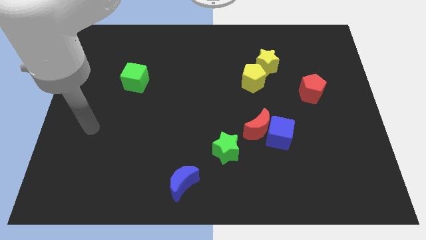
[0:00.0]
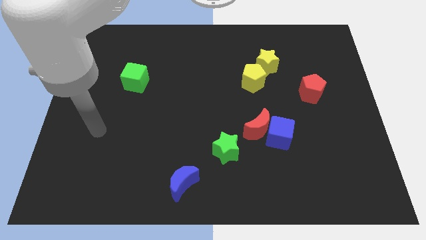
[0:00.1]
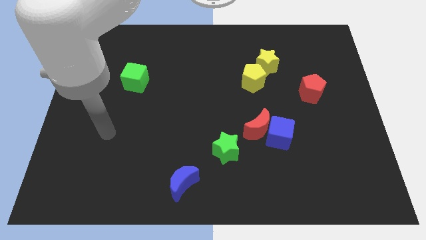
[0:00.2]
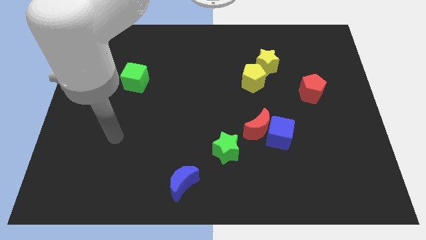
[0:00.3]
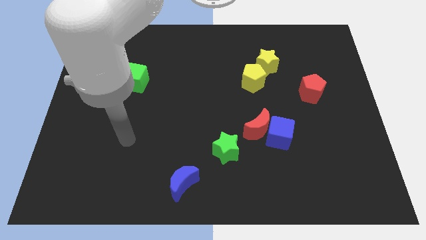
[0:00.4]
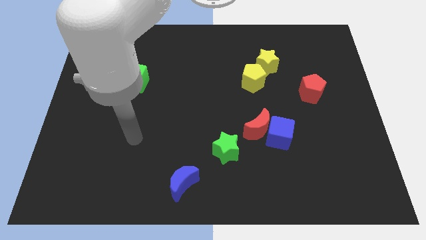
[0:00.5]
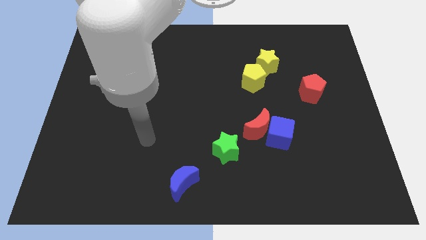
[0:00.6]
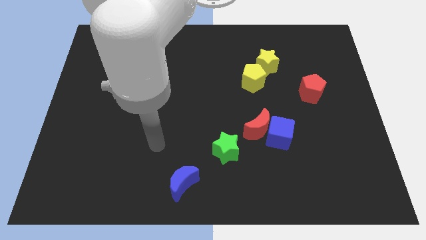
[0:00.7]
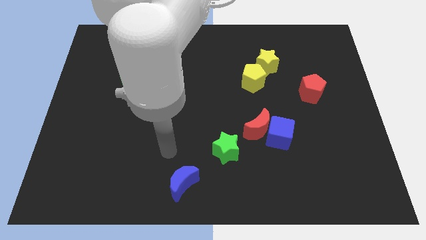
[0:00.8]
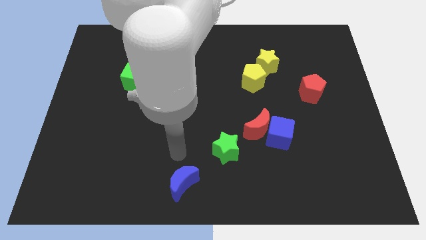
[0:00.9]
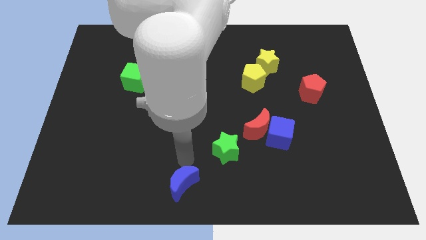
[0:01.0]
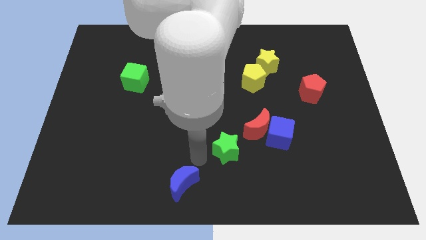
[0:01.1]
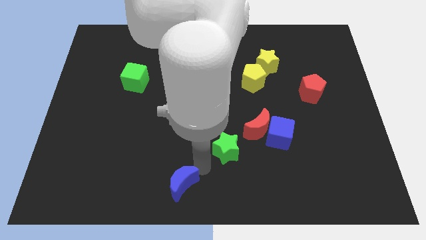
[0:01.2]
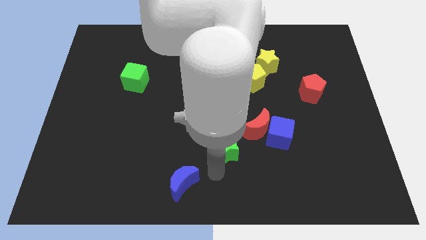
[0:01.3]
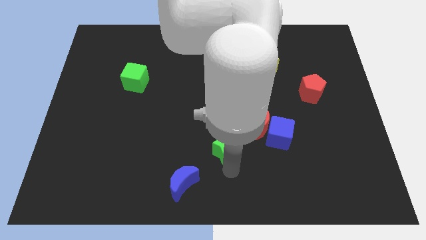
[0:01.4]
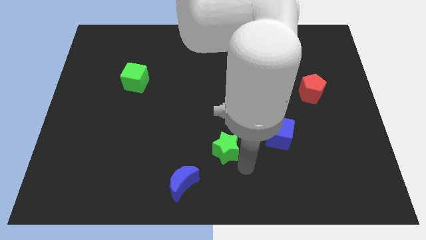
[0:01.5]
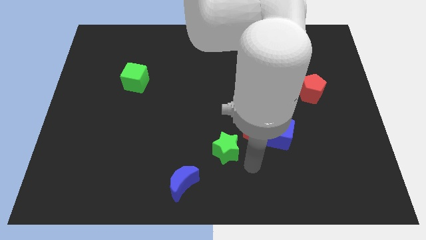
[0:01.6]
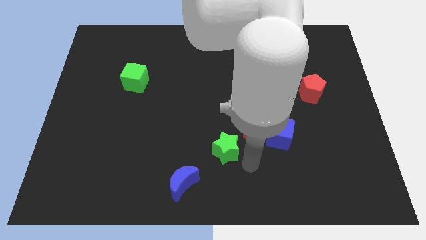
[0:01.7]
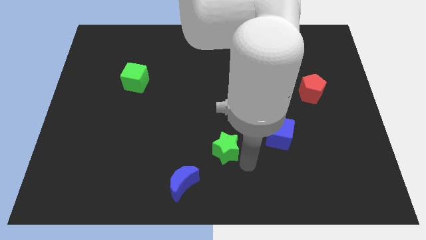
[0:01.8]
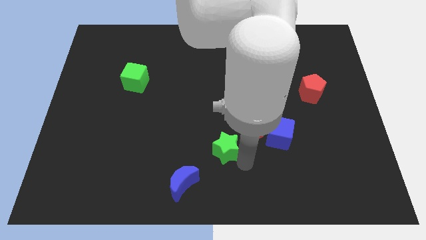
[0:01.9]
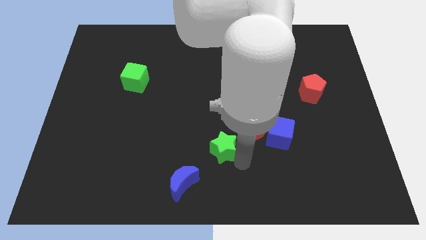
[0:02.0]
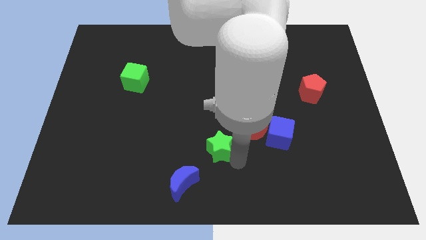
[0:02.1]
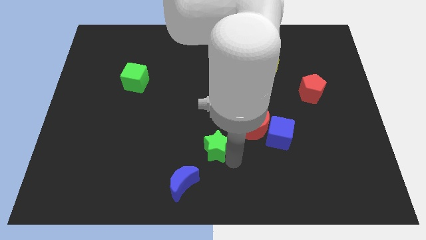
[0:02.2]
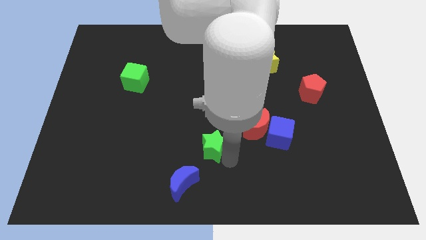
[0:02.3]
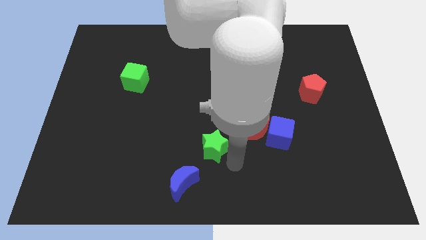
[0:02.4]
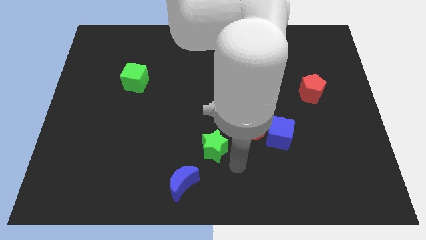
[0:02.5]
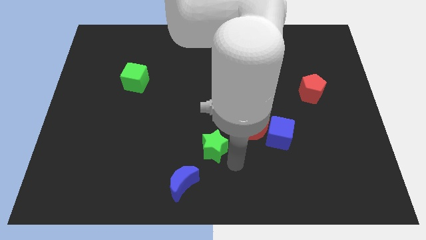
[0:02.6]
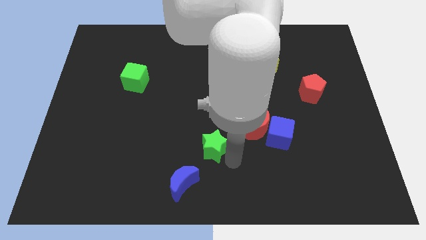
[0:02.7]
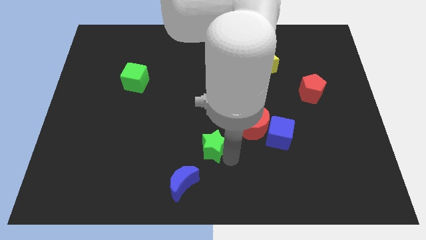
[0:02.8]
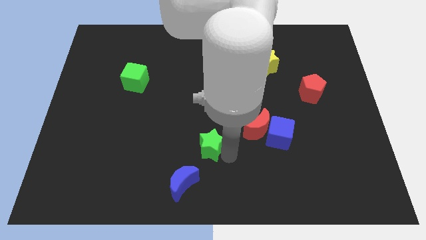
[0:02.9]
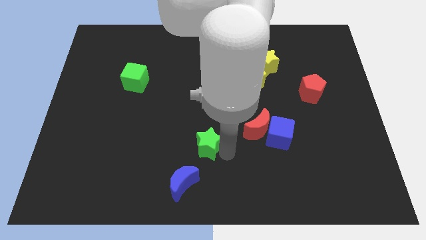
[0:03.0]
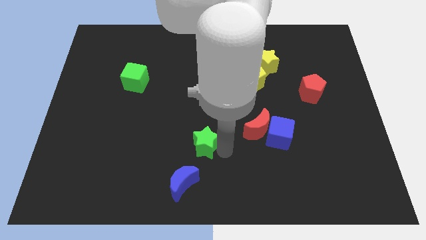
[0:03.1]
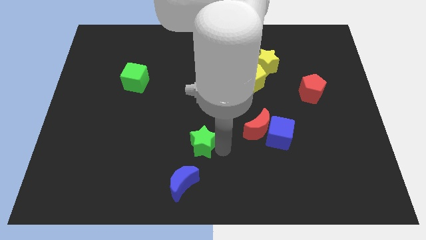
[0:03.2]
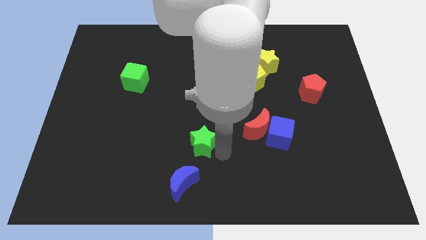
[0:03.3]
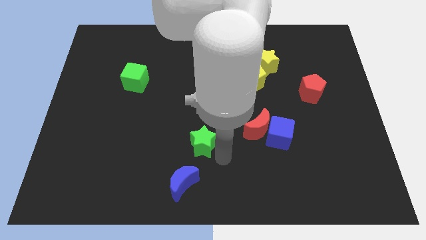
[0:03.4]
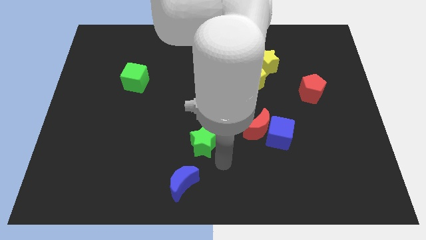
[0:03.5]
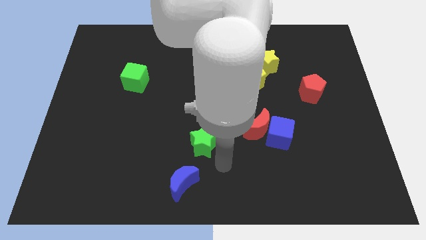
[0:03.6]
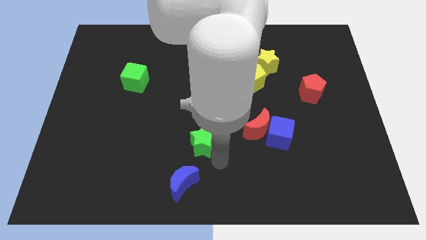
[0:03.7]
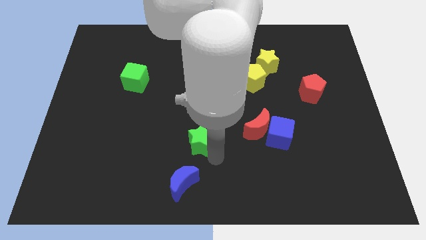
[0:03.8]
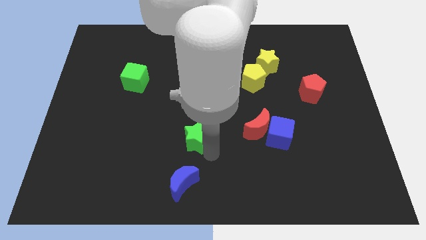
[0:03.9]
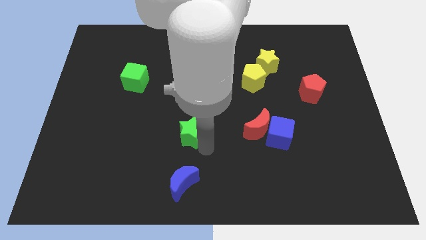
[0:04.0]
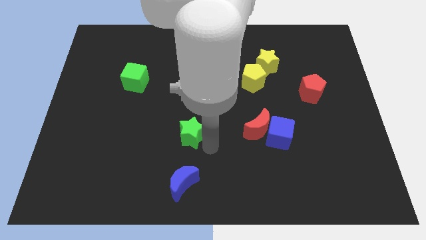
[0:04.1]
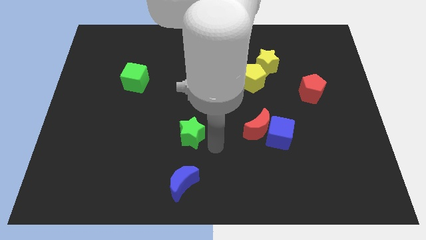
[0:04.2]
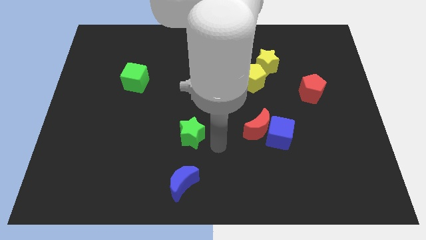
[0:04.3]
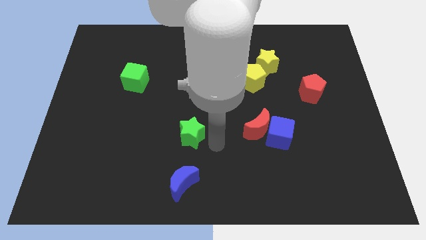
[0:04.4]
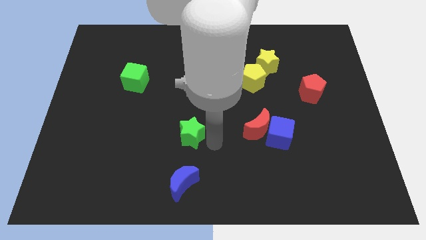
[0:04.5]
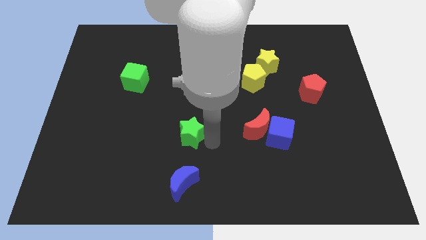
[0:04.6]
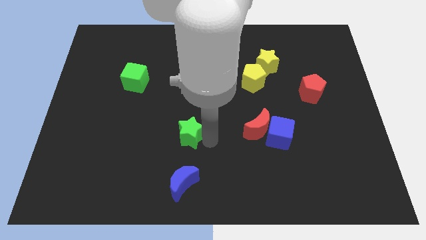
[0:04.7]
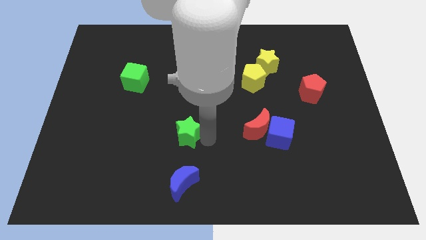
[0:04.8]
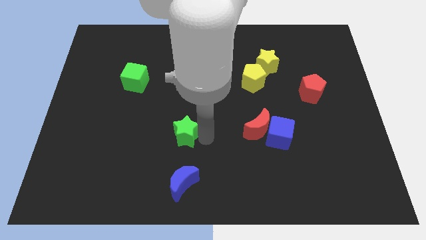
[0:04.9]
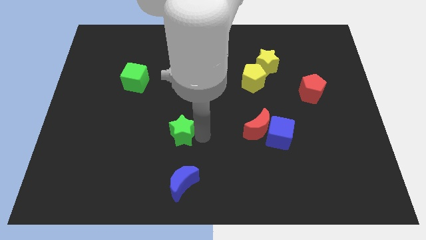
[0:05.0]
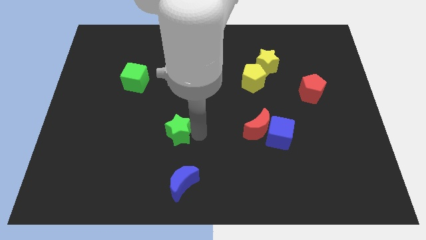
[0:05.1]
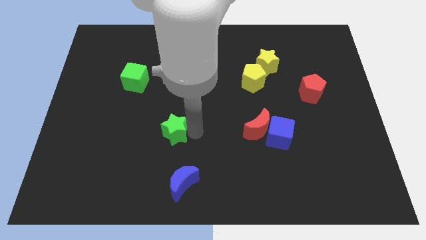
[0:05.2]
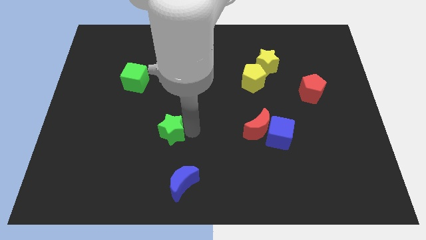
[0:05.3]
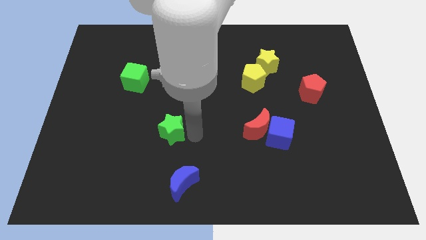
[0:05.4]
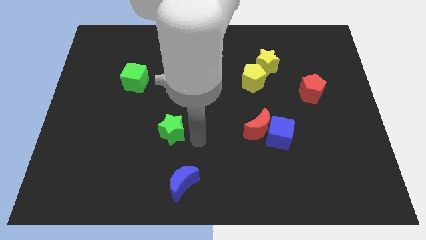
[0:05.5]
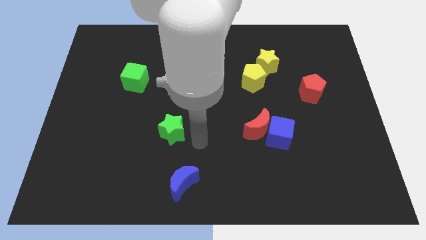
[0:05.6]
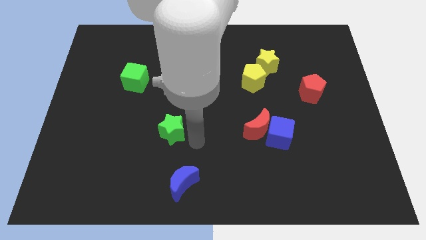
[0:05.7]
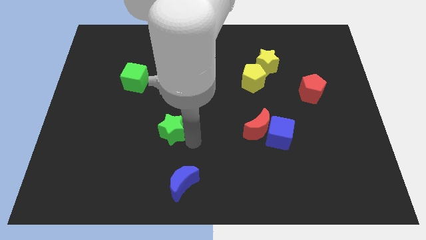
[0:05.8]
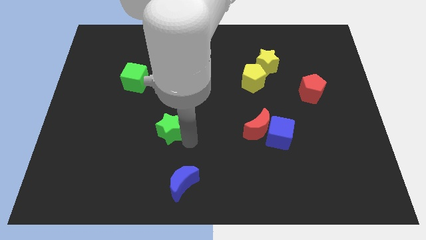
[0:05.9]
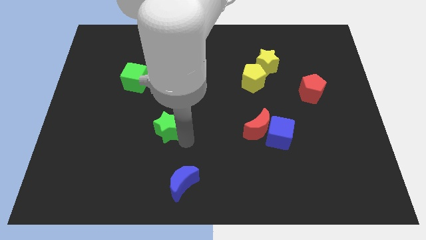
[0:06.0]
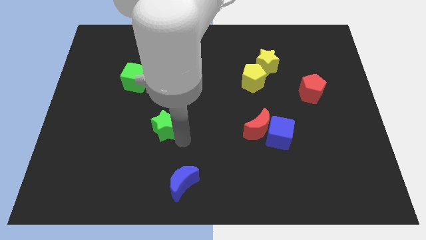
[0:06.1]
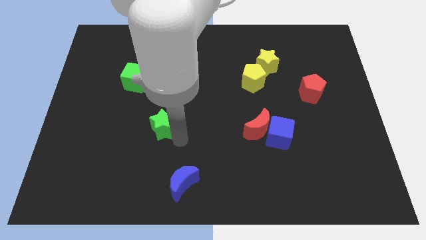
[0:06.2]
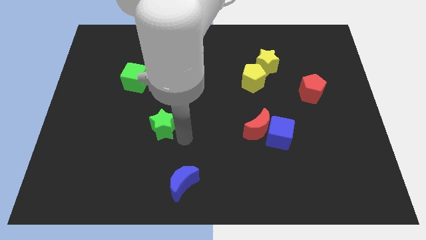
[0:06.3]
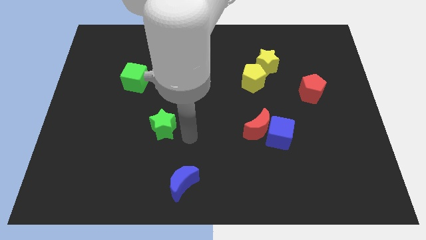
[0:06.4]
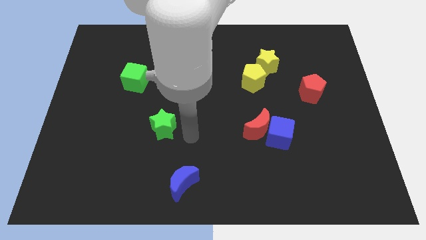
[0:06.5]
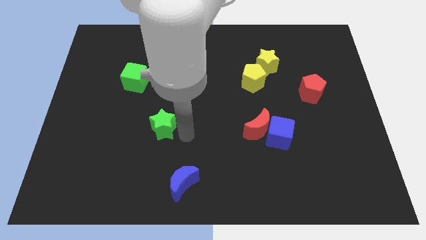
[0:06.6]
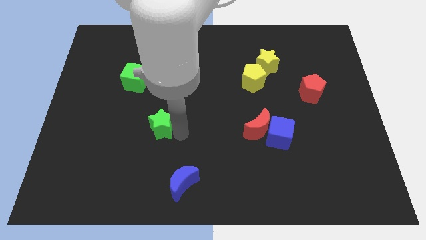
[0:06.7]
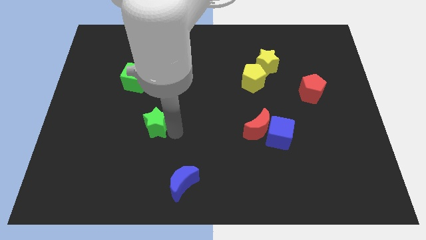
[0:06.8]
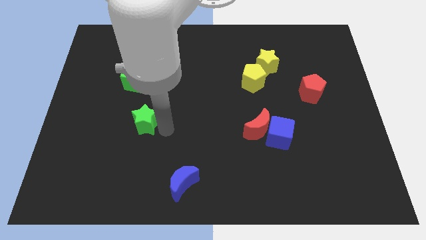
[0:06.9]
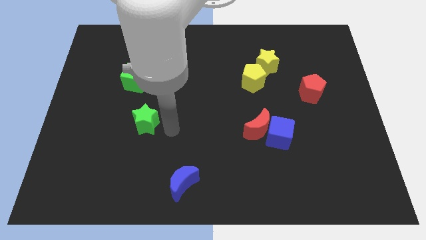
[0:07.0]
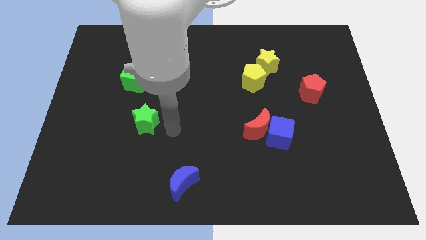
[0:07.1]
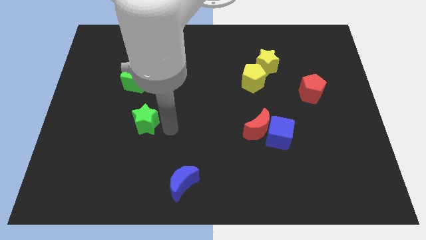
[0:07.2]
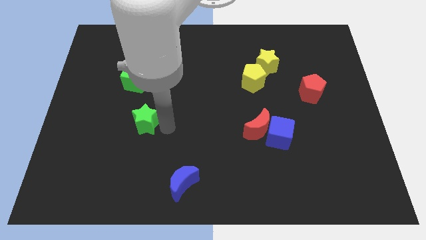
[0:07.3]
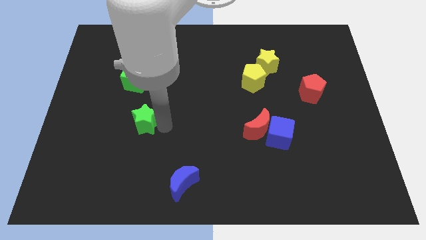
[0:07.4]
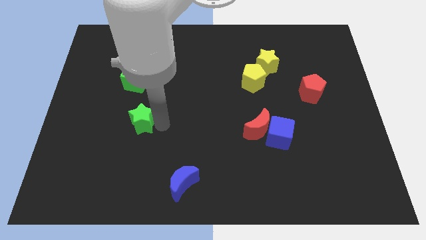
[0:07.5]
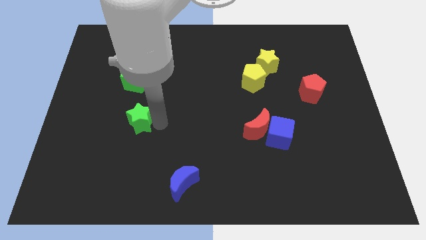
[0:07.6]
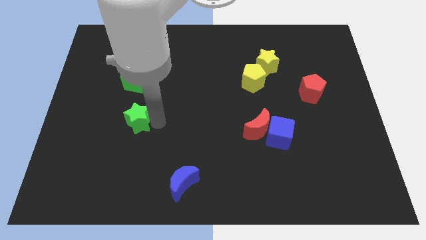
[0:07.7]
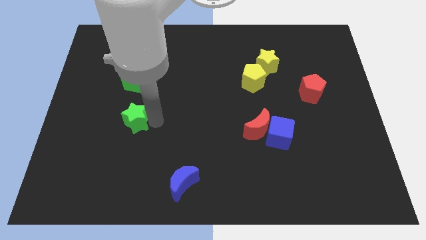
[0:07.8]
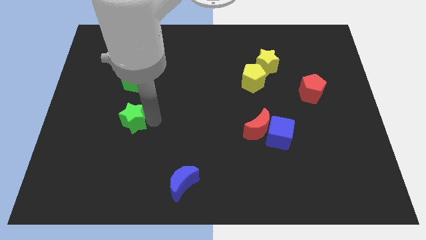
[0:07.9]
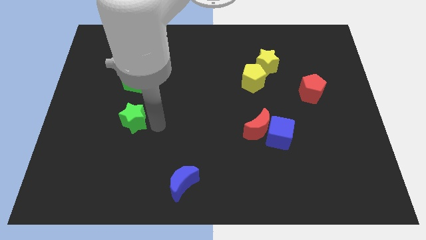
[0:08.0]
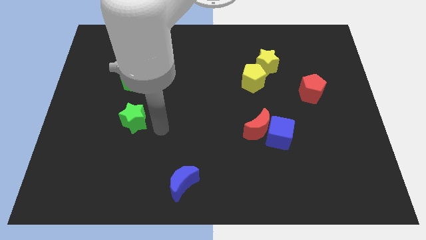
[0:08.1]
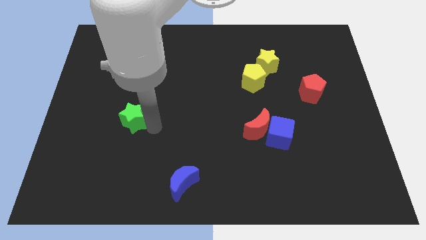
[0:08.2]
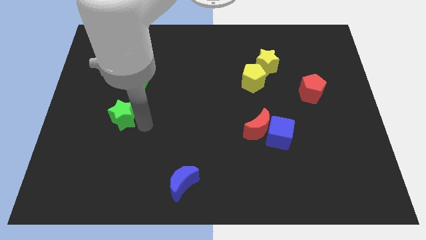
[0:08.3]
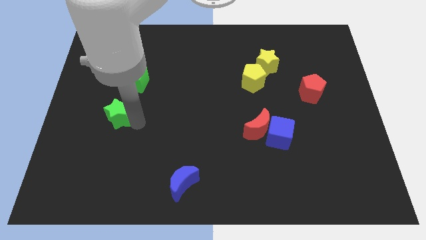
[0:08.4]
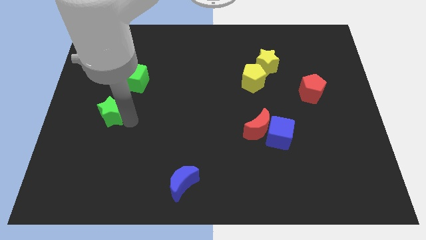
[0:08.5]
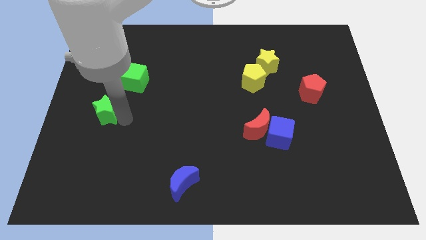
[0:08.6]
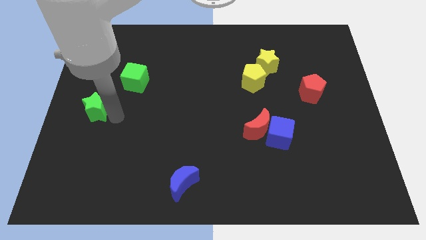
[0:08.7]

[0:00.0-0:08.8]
put the green star to the center left
